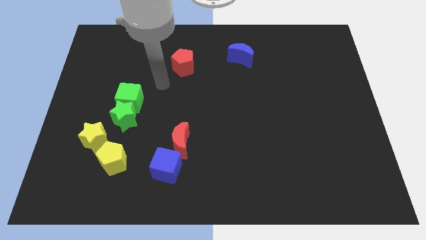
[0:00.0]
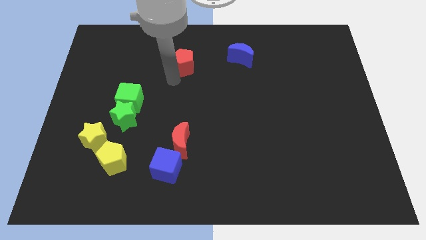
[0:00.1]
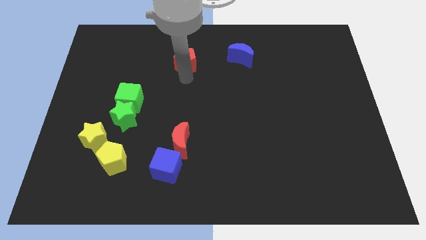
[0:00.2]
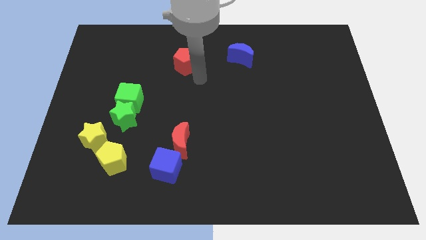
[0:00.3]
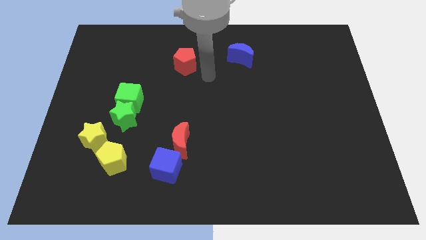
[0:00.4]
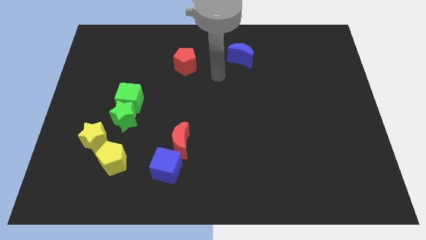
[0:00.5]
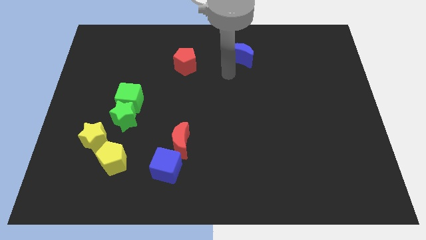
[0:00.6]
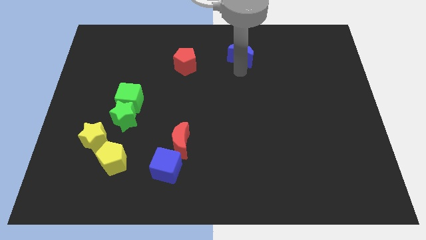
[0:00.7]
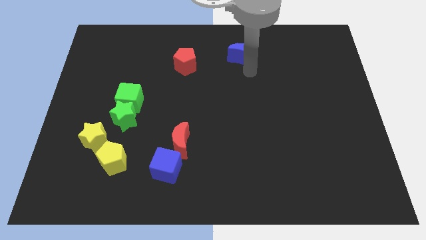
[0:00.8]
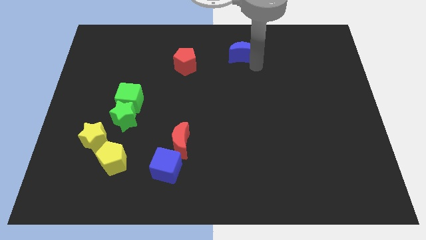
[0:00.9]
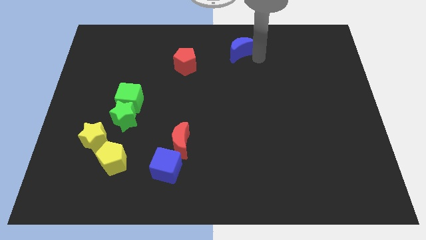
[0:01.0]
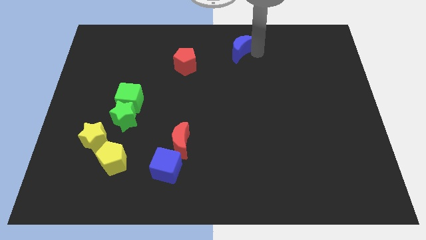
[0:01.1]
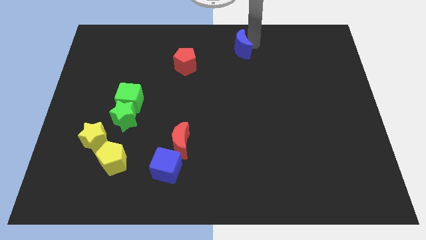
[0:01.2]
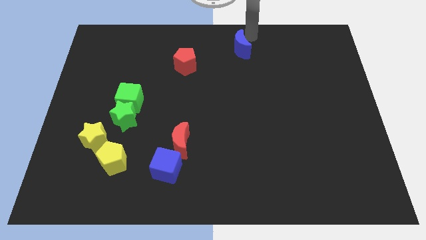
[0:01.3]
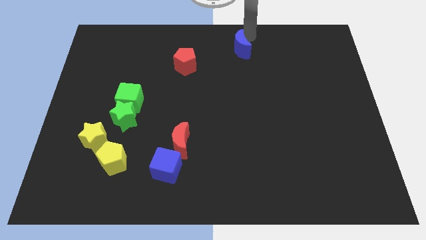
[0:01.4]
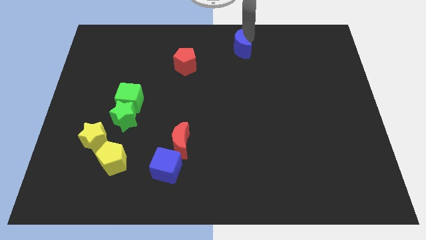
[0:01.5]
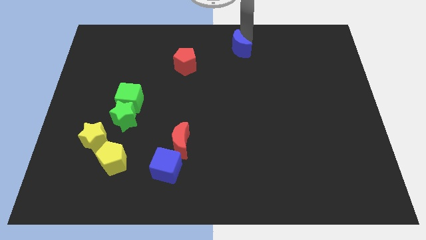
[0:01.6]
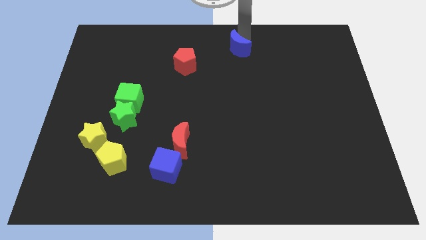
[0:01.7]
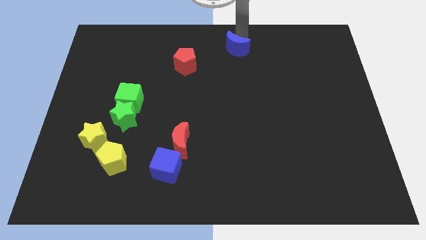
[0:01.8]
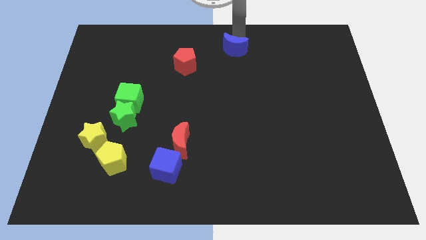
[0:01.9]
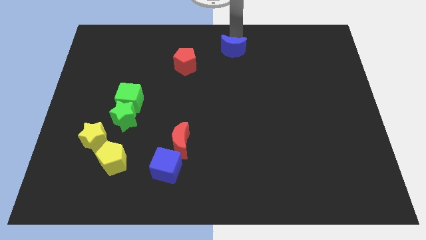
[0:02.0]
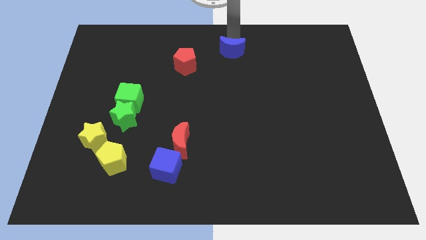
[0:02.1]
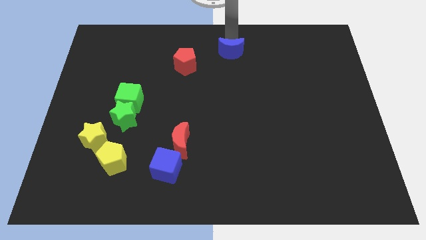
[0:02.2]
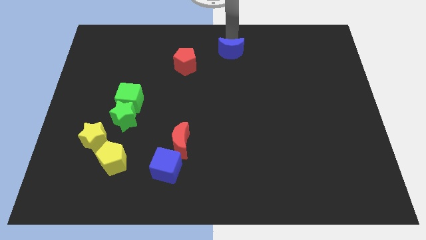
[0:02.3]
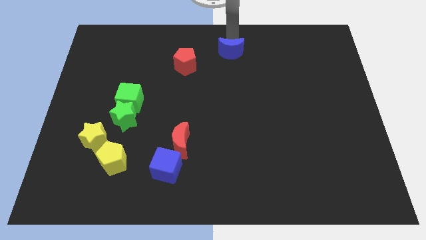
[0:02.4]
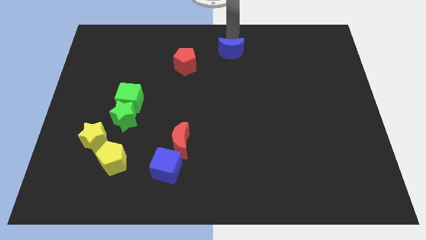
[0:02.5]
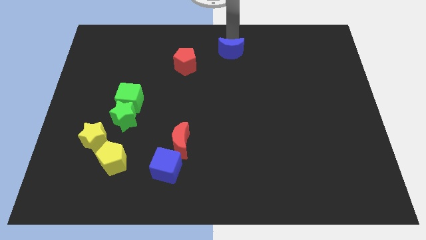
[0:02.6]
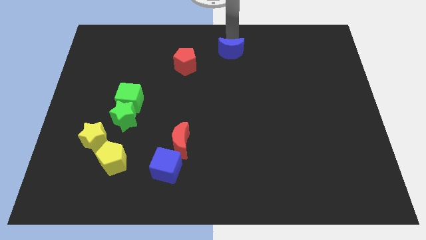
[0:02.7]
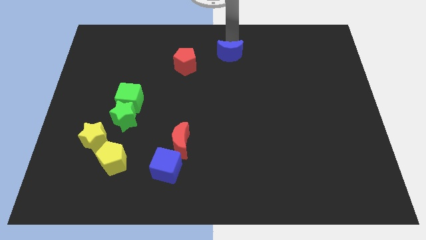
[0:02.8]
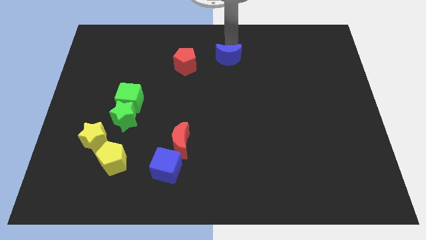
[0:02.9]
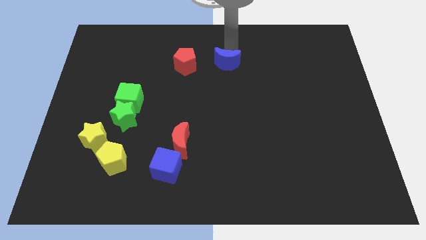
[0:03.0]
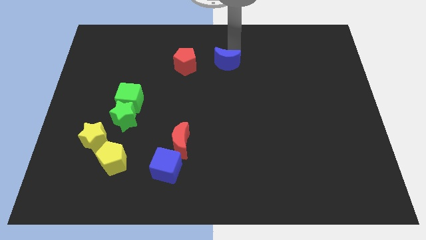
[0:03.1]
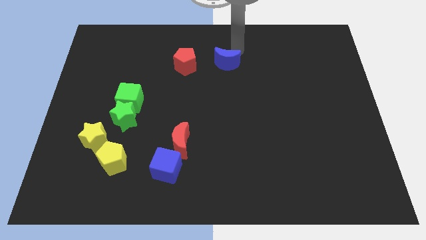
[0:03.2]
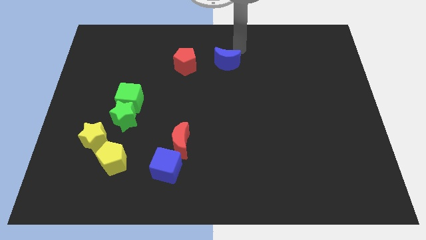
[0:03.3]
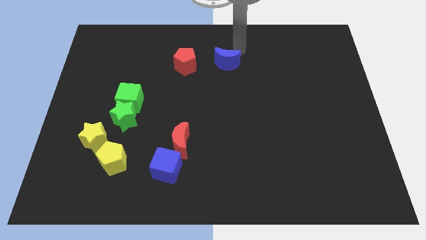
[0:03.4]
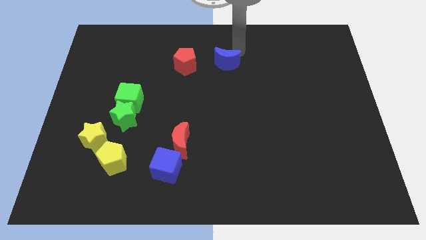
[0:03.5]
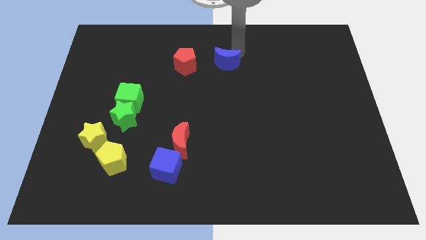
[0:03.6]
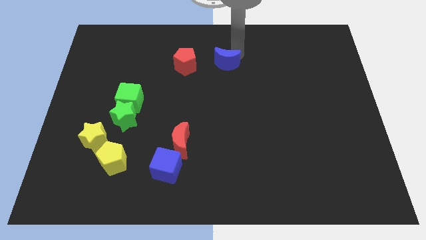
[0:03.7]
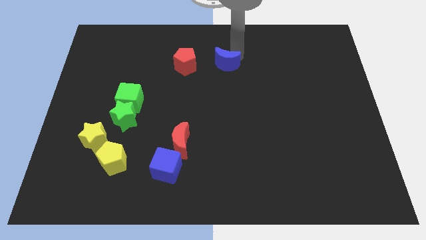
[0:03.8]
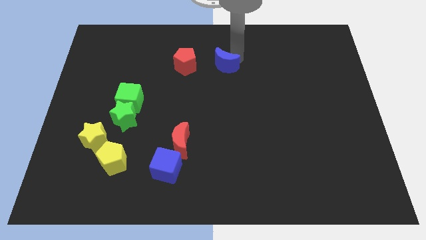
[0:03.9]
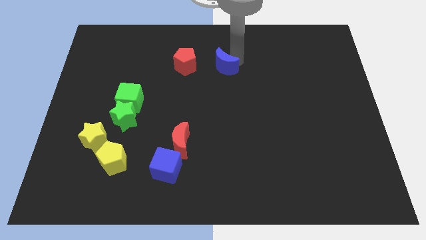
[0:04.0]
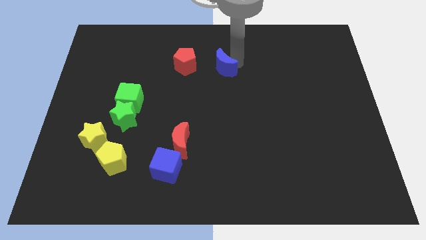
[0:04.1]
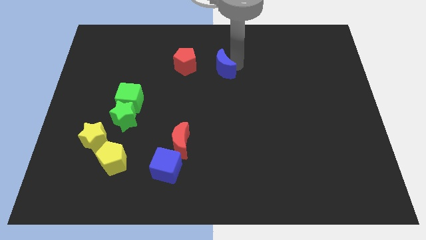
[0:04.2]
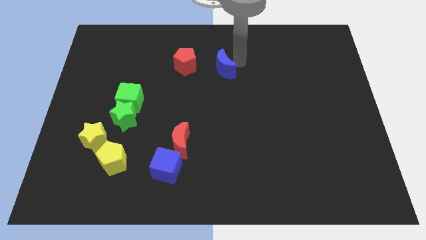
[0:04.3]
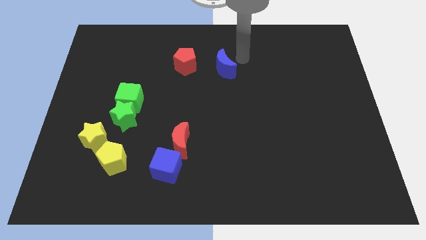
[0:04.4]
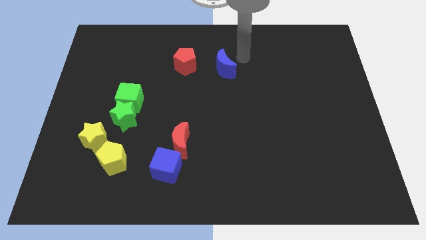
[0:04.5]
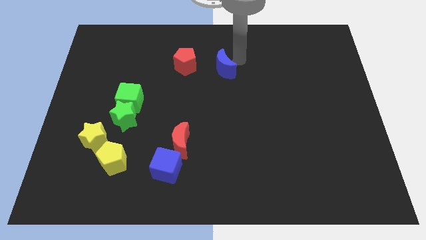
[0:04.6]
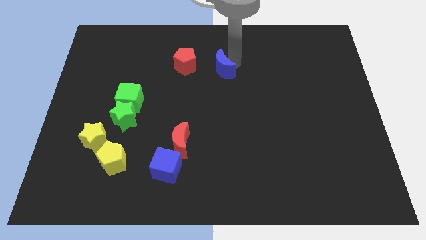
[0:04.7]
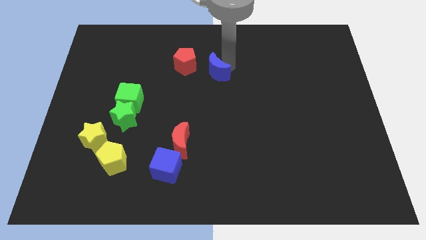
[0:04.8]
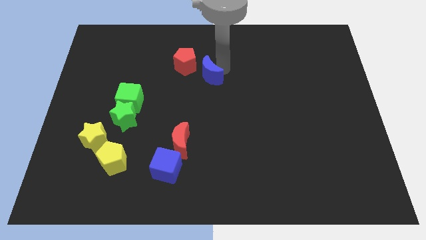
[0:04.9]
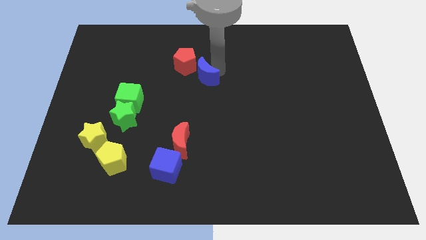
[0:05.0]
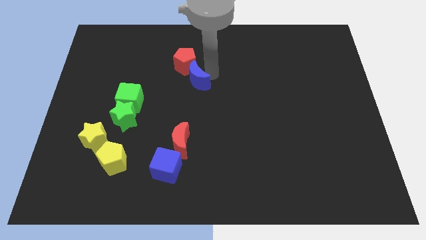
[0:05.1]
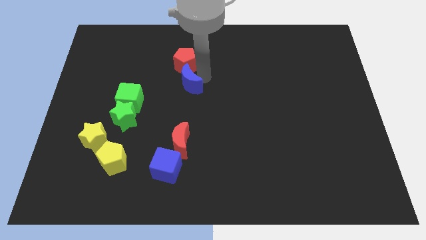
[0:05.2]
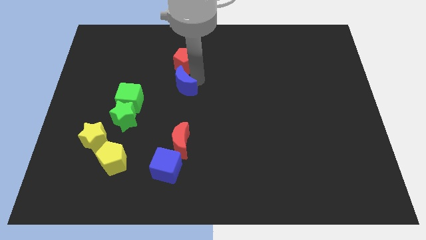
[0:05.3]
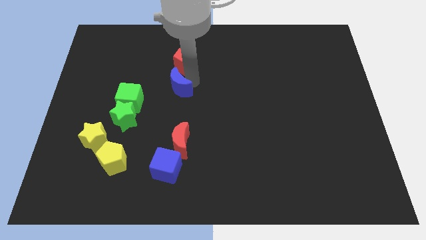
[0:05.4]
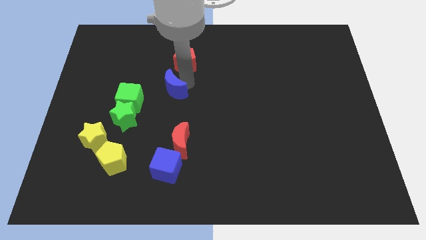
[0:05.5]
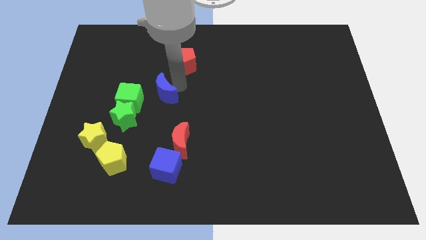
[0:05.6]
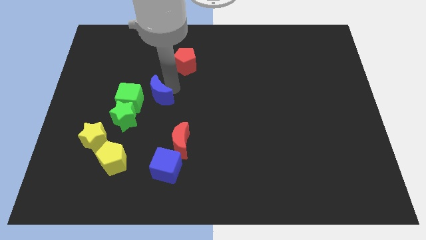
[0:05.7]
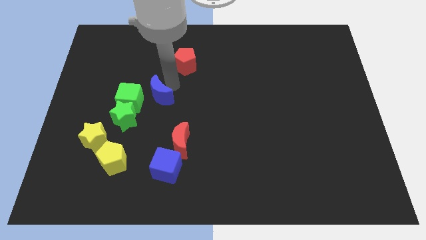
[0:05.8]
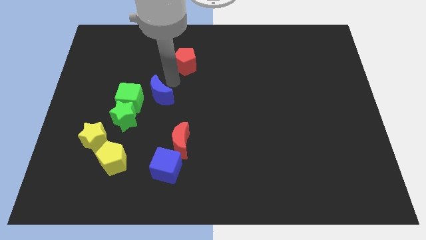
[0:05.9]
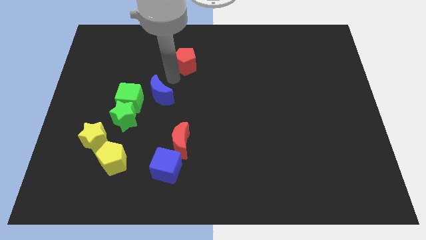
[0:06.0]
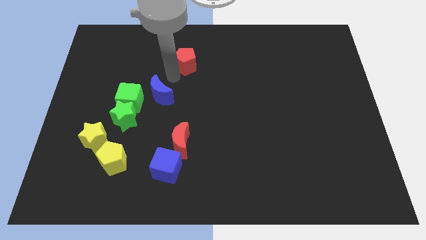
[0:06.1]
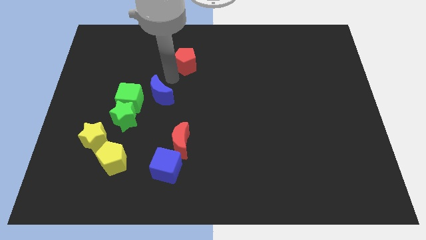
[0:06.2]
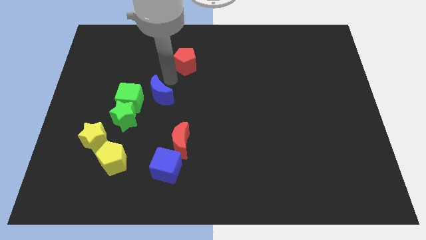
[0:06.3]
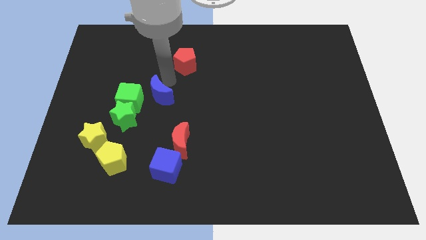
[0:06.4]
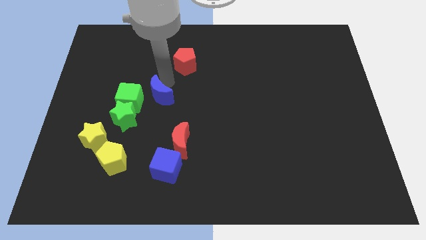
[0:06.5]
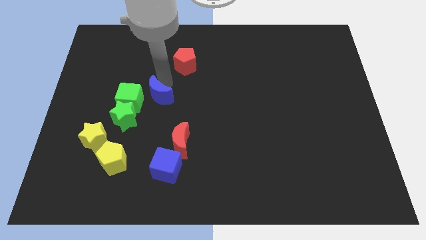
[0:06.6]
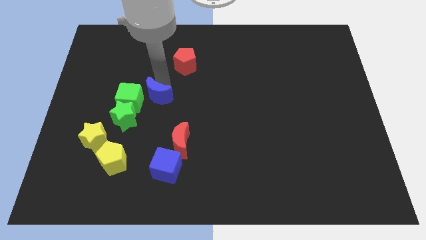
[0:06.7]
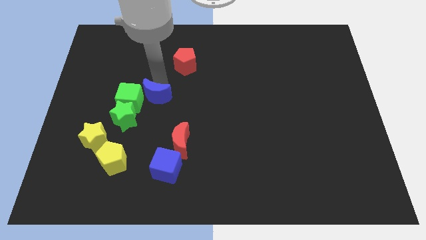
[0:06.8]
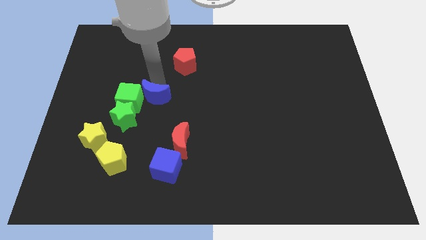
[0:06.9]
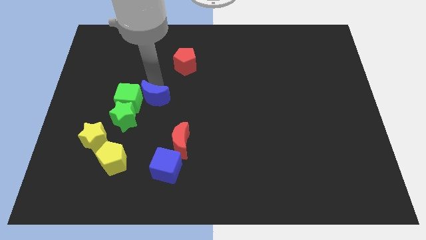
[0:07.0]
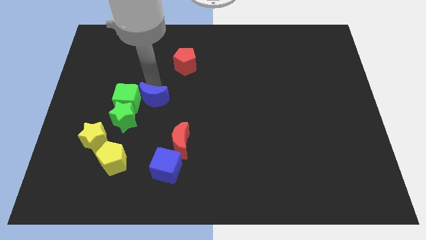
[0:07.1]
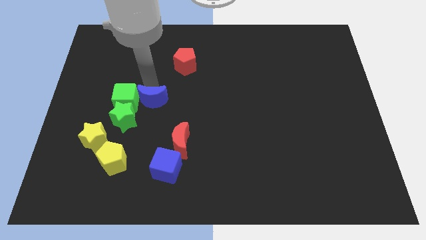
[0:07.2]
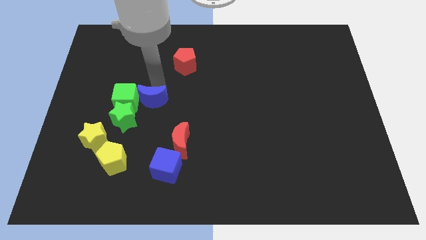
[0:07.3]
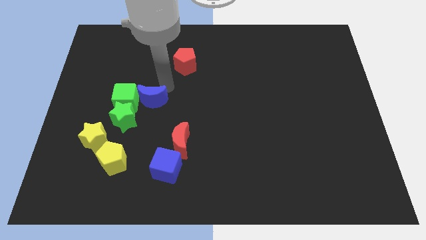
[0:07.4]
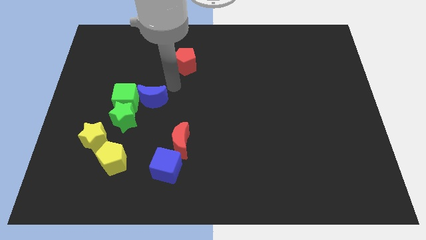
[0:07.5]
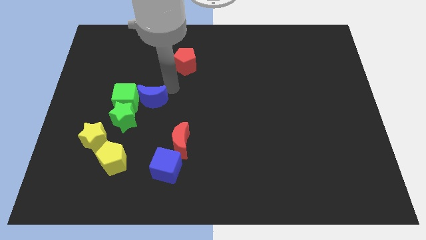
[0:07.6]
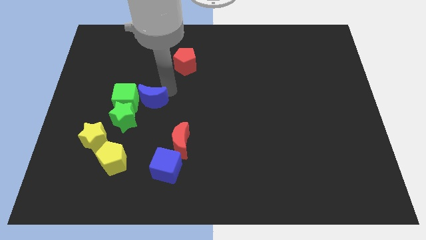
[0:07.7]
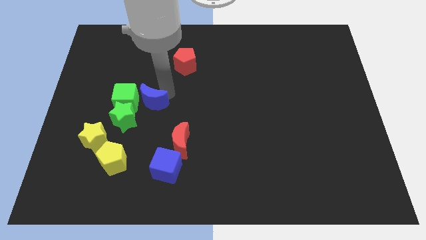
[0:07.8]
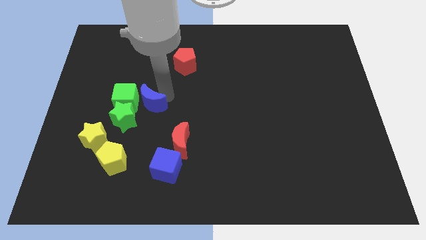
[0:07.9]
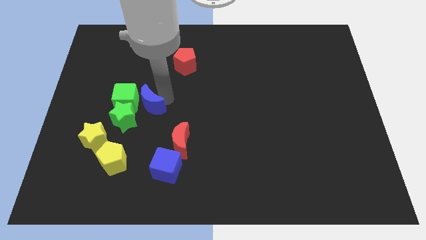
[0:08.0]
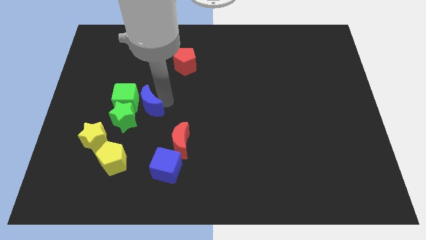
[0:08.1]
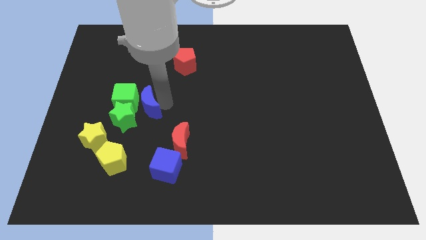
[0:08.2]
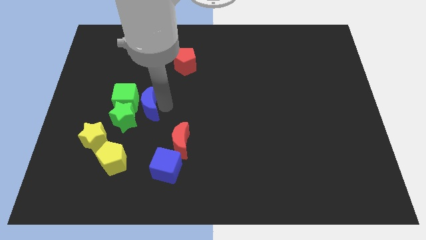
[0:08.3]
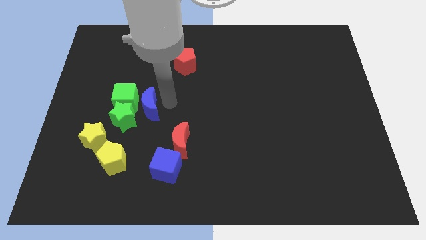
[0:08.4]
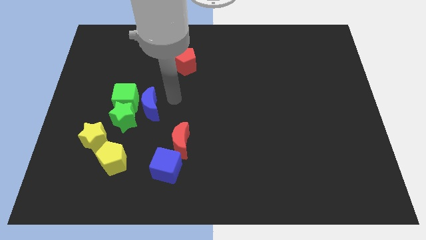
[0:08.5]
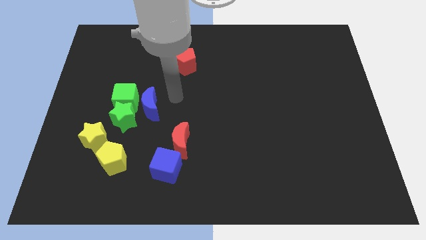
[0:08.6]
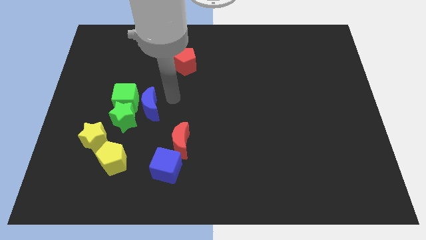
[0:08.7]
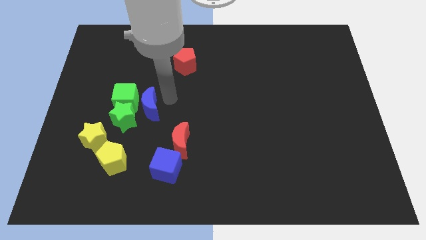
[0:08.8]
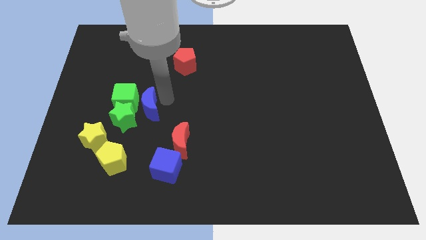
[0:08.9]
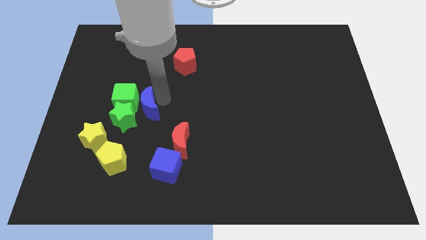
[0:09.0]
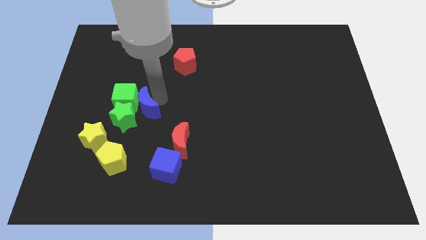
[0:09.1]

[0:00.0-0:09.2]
move the blue moon next to the green star
